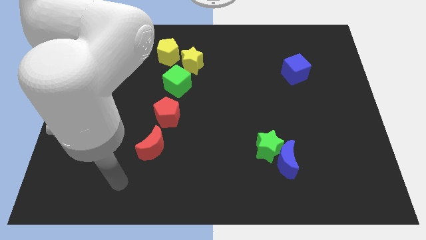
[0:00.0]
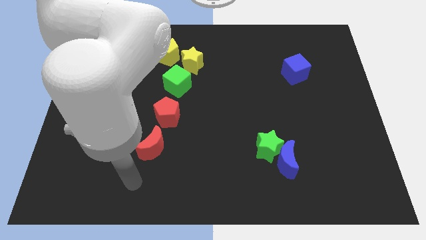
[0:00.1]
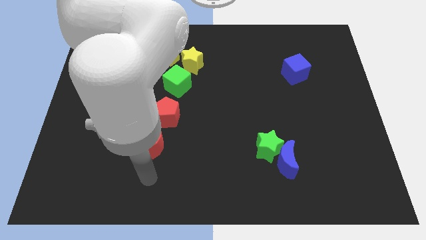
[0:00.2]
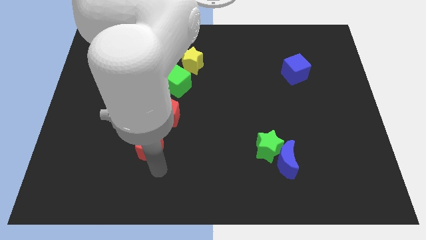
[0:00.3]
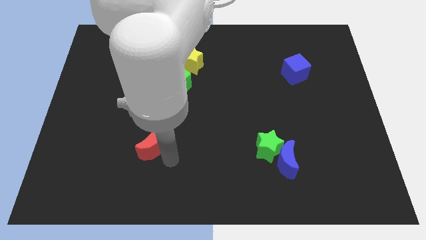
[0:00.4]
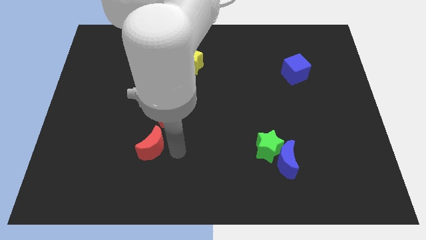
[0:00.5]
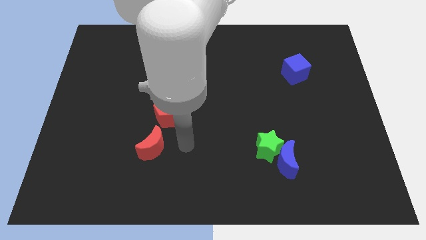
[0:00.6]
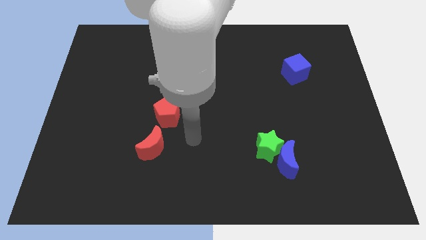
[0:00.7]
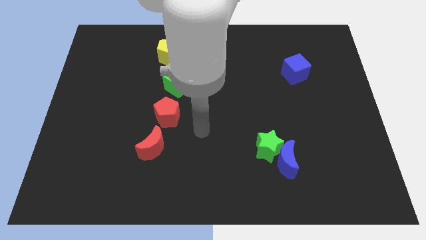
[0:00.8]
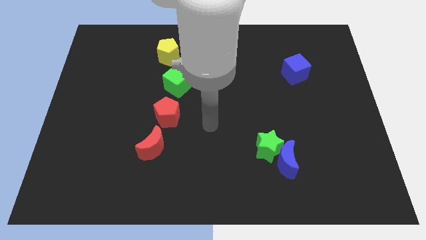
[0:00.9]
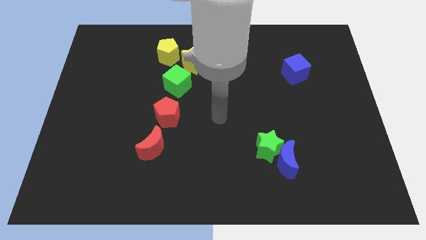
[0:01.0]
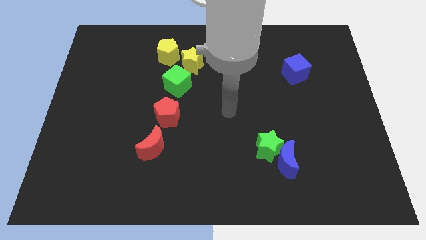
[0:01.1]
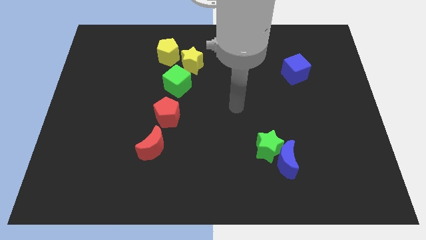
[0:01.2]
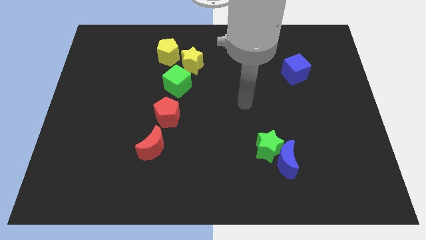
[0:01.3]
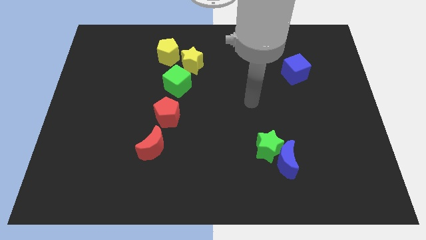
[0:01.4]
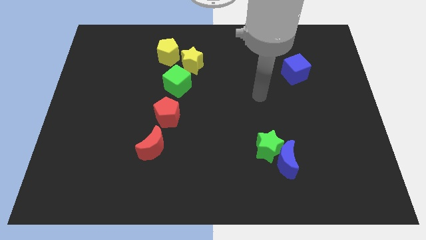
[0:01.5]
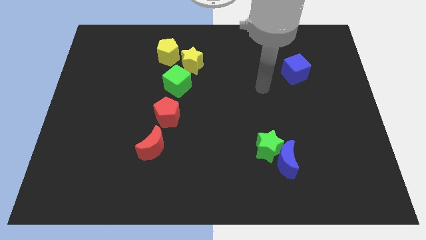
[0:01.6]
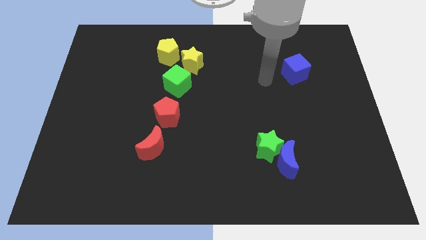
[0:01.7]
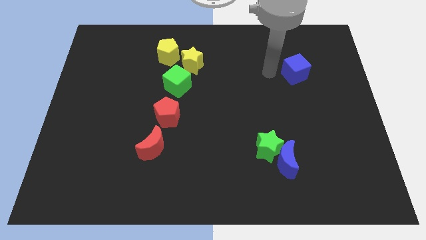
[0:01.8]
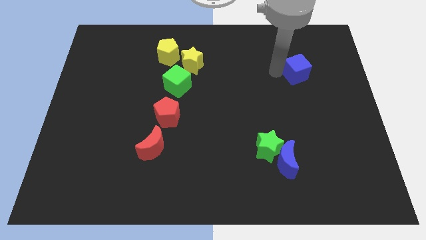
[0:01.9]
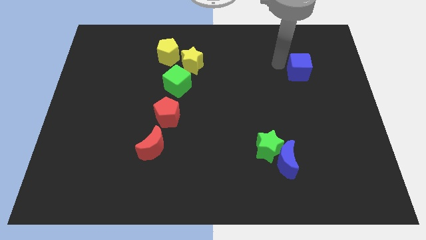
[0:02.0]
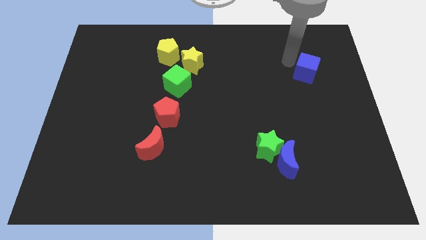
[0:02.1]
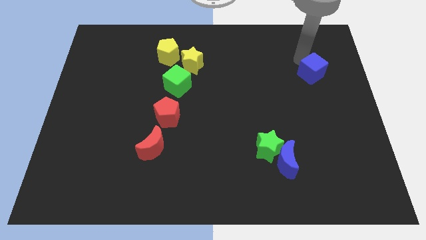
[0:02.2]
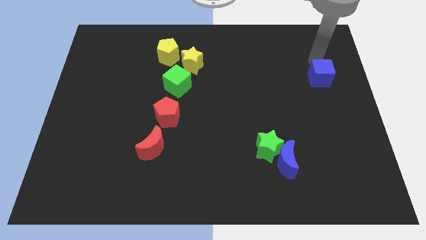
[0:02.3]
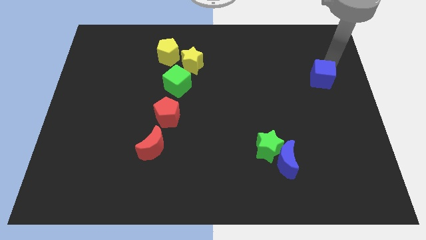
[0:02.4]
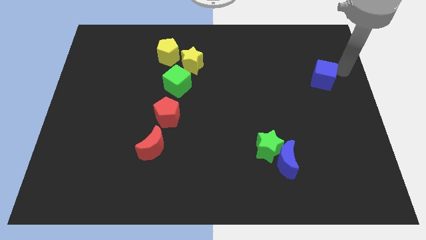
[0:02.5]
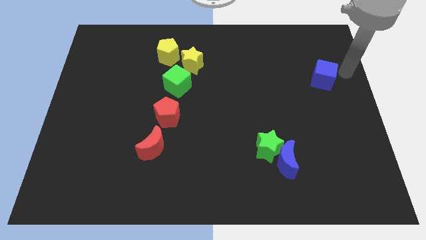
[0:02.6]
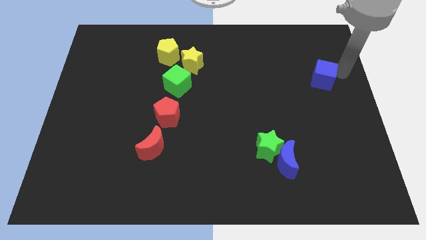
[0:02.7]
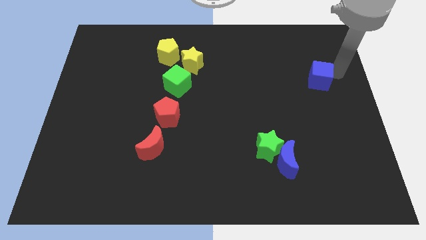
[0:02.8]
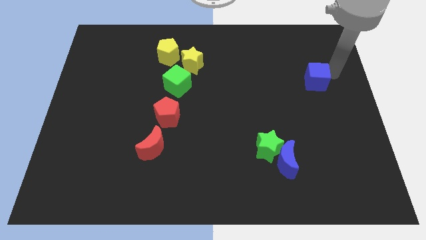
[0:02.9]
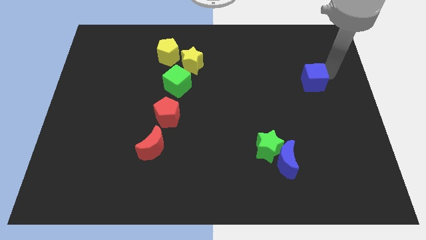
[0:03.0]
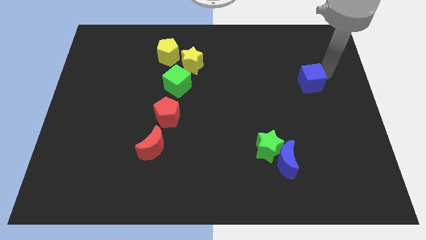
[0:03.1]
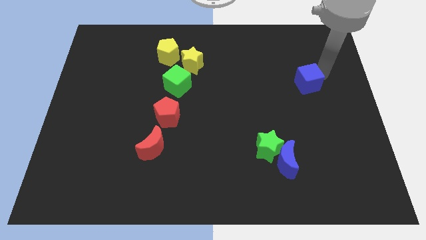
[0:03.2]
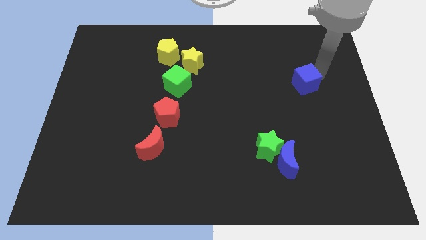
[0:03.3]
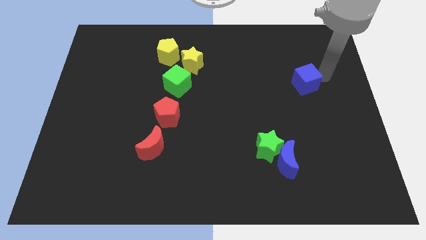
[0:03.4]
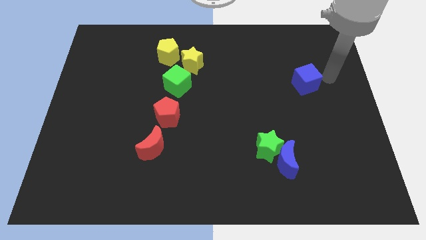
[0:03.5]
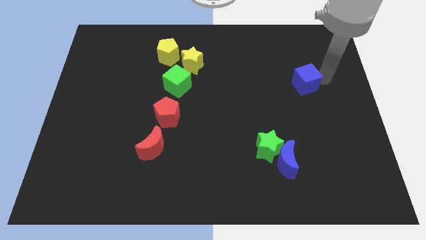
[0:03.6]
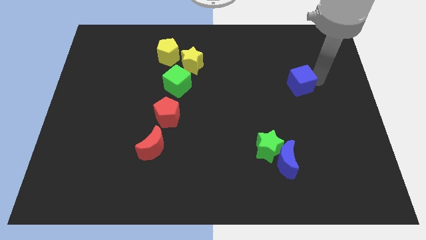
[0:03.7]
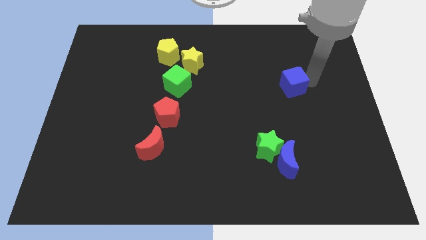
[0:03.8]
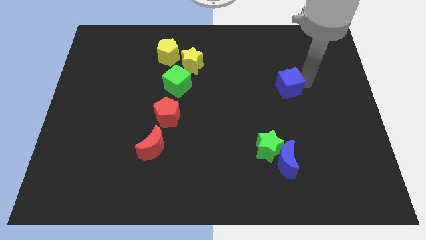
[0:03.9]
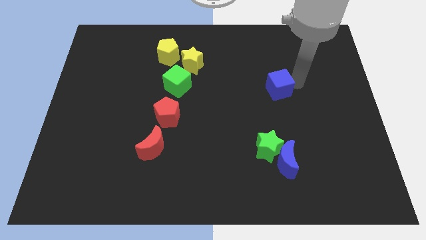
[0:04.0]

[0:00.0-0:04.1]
slide the blue cube a little bit downwards and left diagonally

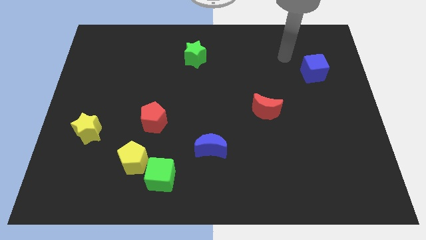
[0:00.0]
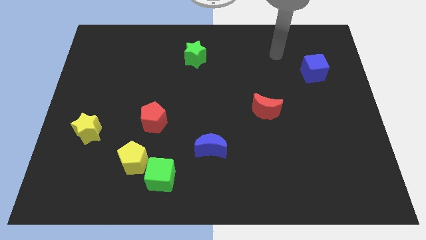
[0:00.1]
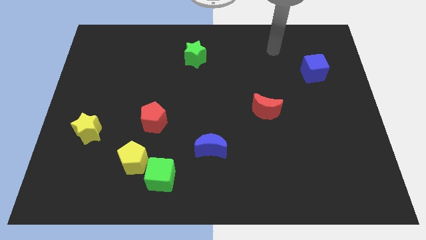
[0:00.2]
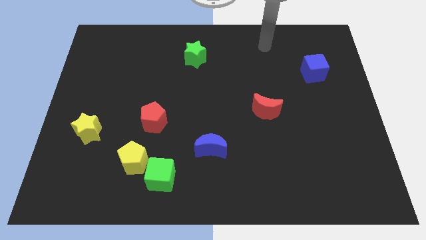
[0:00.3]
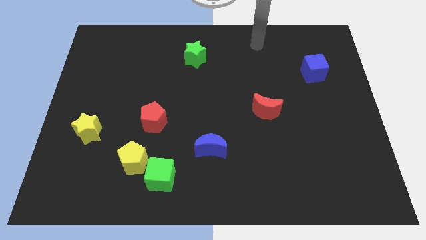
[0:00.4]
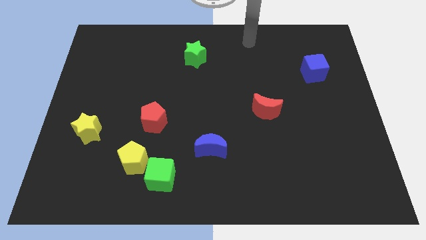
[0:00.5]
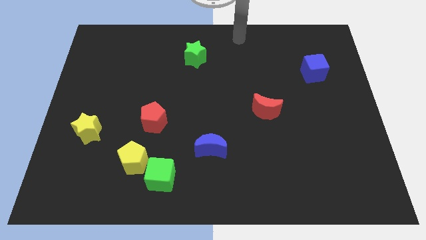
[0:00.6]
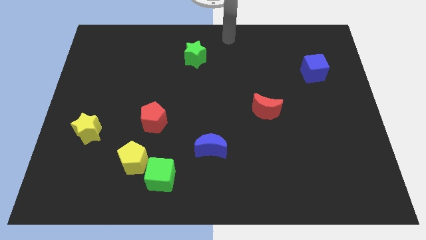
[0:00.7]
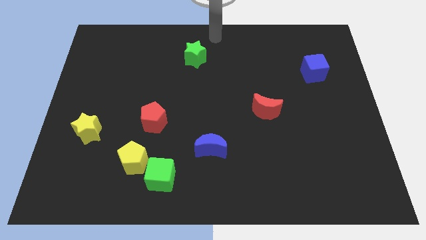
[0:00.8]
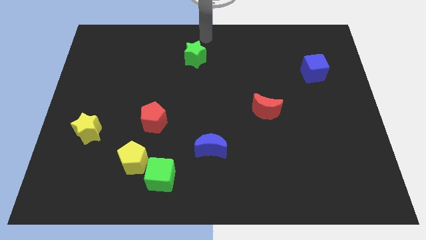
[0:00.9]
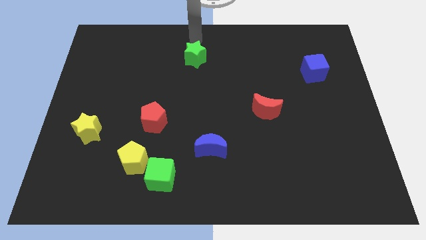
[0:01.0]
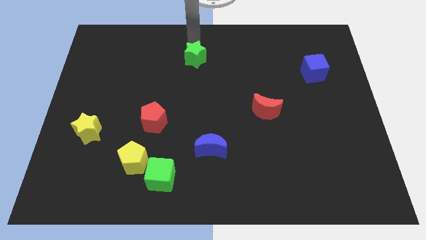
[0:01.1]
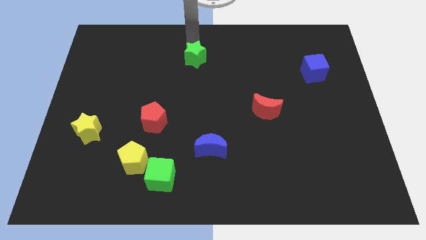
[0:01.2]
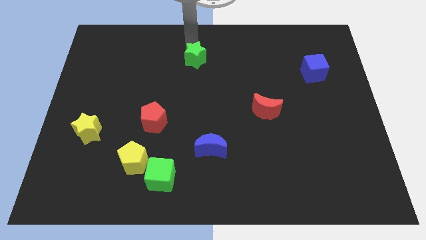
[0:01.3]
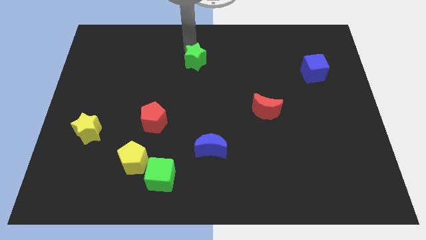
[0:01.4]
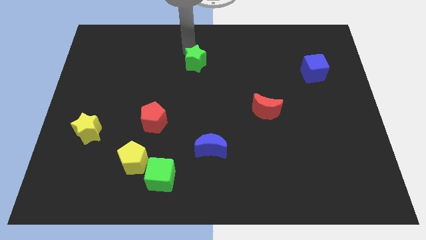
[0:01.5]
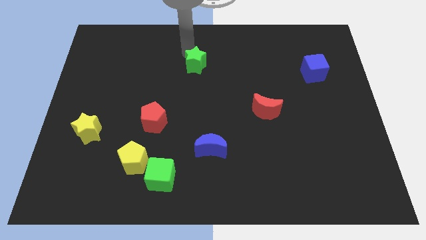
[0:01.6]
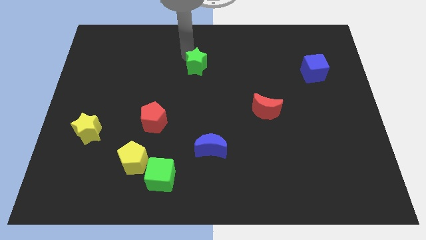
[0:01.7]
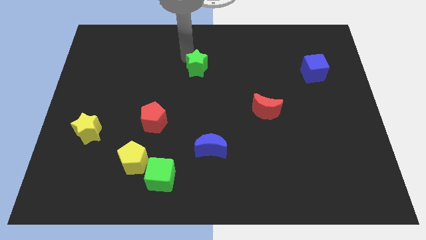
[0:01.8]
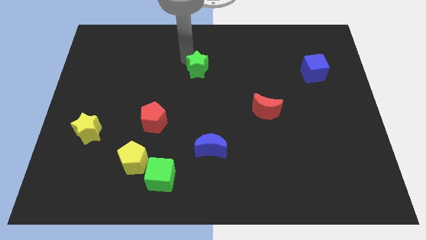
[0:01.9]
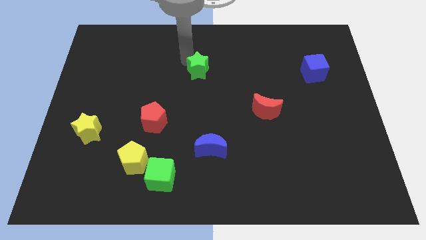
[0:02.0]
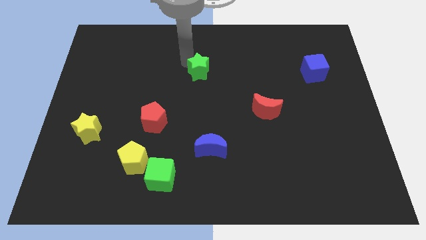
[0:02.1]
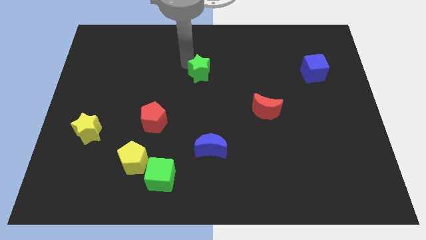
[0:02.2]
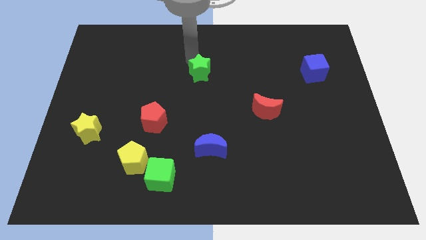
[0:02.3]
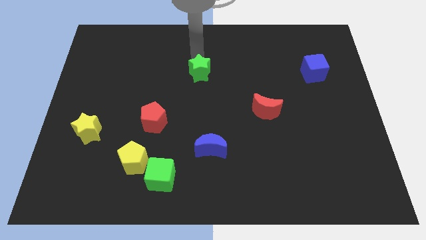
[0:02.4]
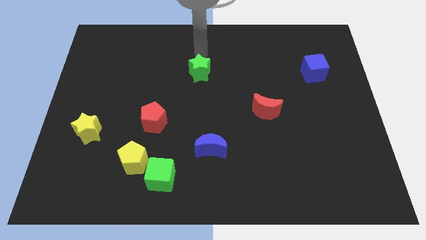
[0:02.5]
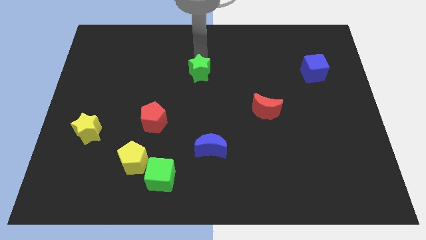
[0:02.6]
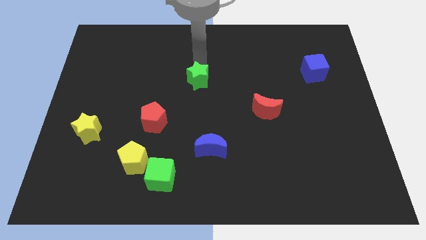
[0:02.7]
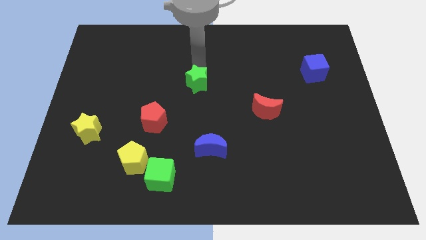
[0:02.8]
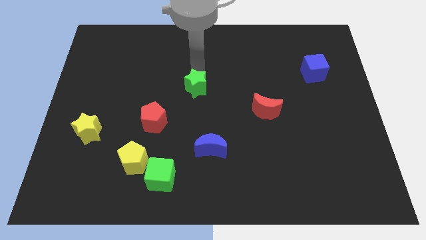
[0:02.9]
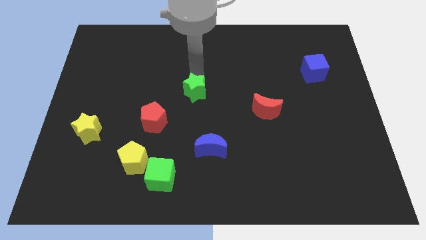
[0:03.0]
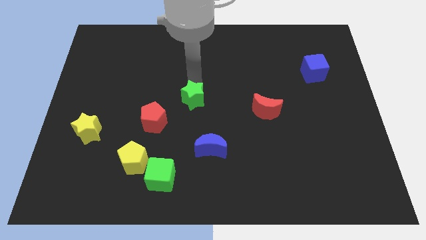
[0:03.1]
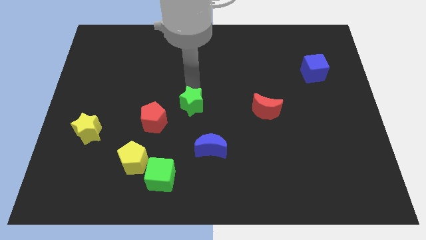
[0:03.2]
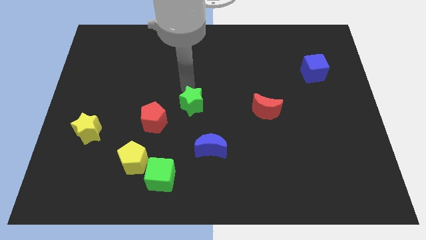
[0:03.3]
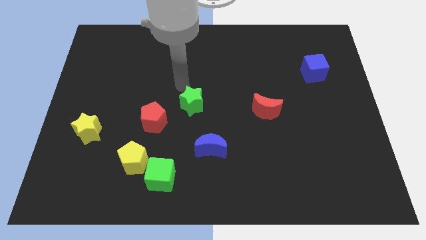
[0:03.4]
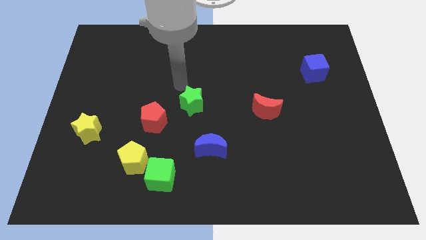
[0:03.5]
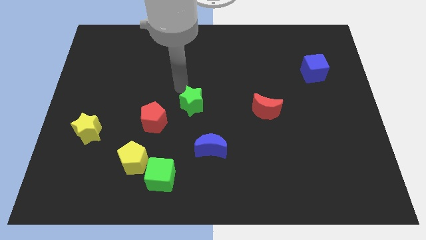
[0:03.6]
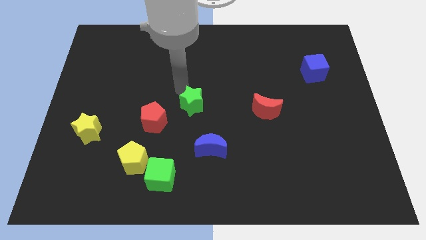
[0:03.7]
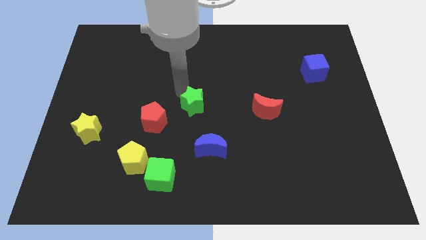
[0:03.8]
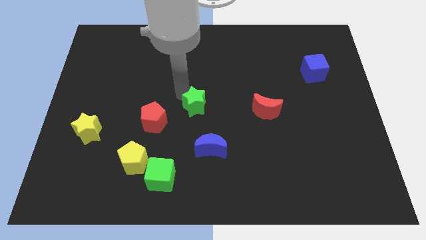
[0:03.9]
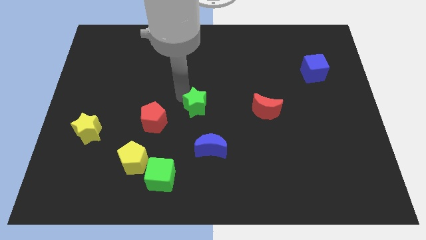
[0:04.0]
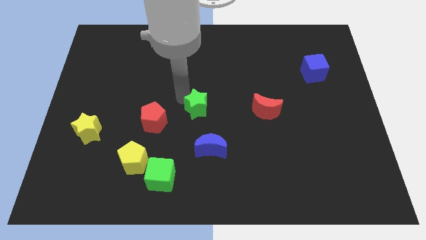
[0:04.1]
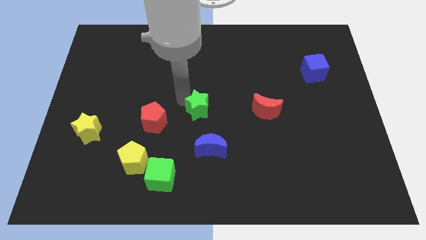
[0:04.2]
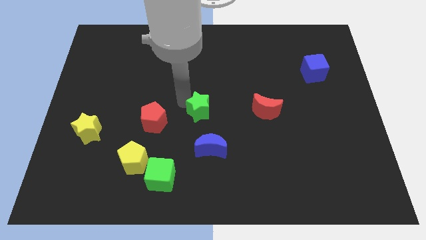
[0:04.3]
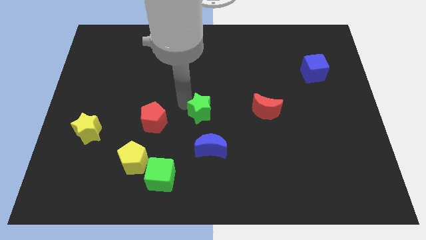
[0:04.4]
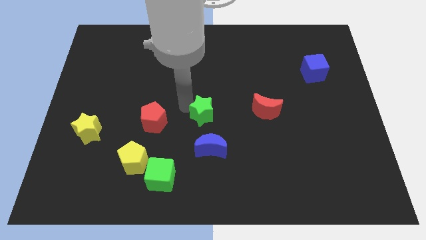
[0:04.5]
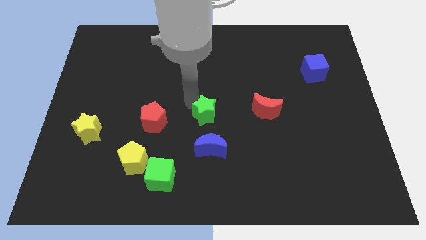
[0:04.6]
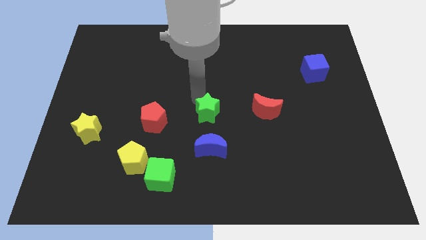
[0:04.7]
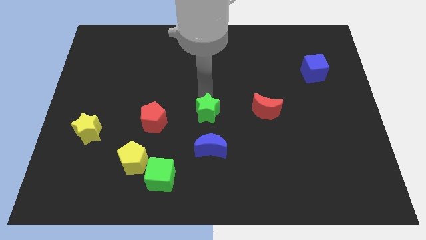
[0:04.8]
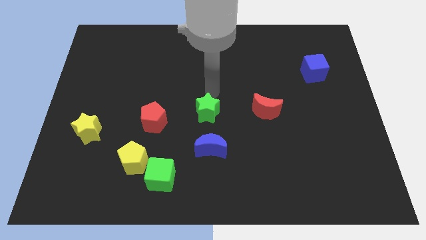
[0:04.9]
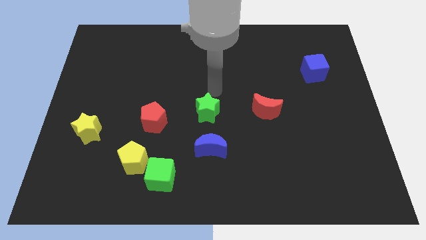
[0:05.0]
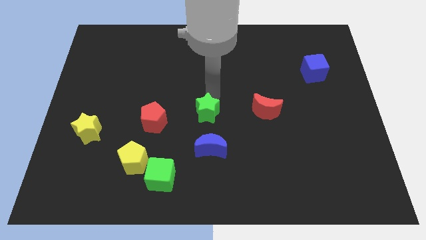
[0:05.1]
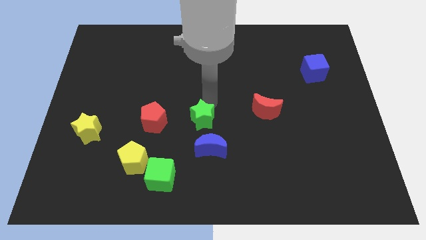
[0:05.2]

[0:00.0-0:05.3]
slide the green star down
